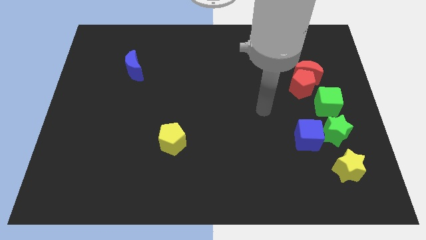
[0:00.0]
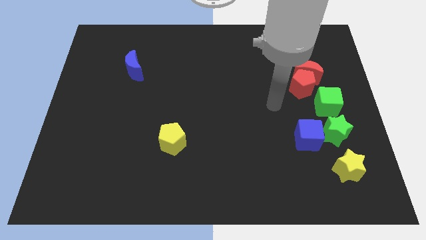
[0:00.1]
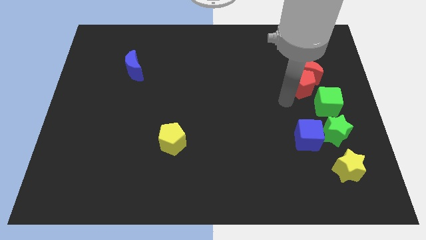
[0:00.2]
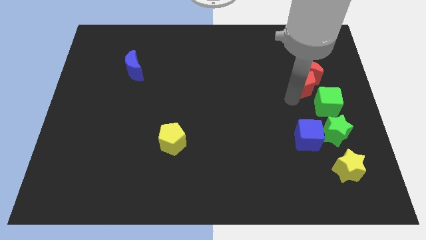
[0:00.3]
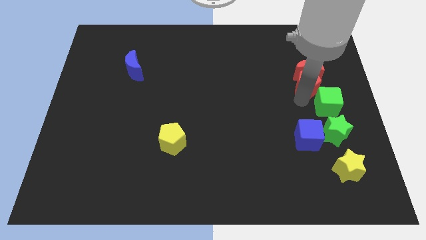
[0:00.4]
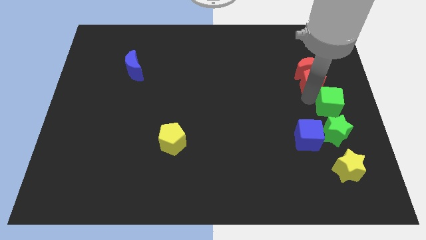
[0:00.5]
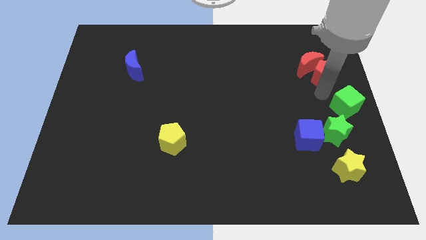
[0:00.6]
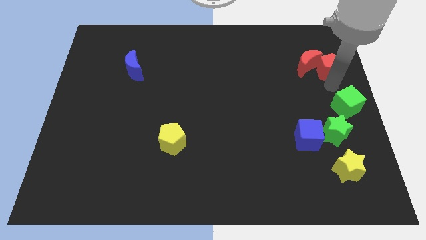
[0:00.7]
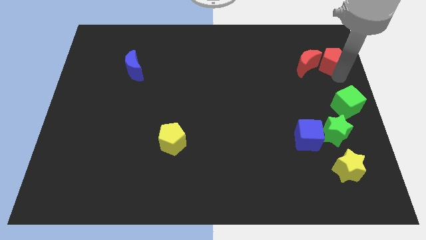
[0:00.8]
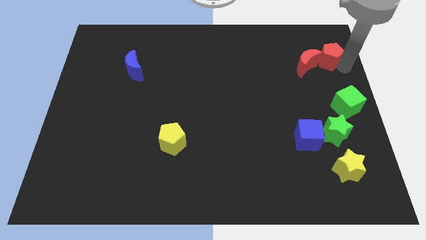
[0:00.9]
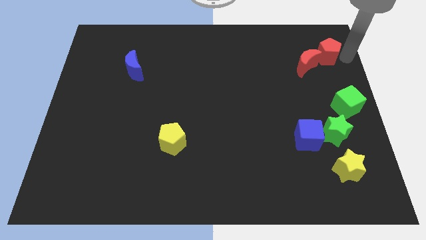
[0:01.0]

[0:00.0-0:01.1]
separate the red pentagon from the red moon and green cube

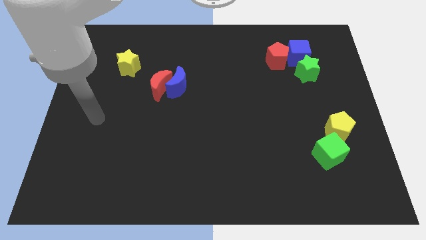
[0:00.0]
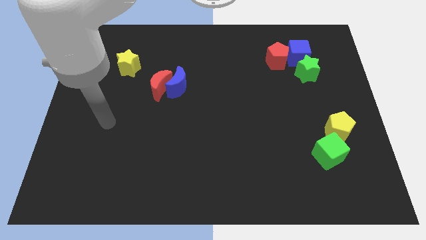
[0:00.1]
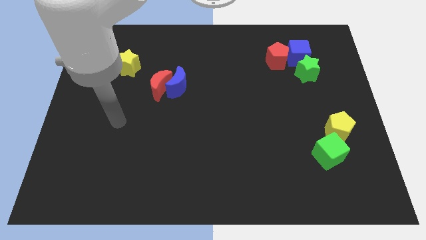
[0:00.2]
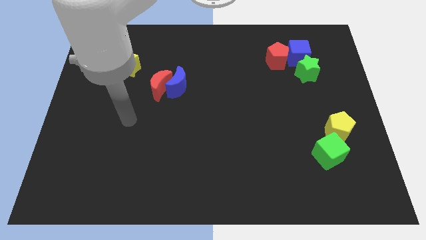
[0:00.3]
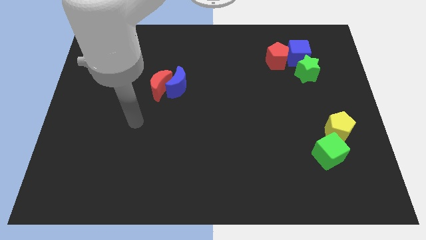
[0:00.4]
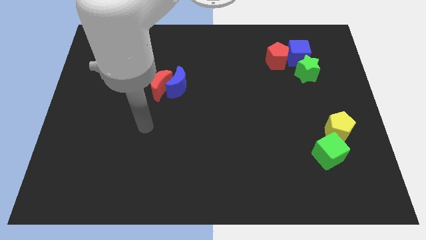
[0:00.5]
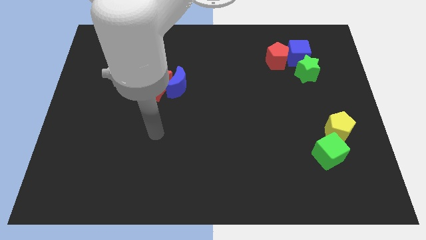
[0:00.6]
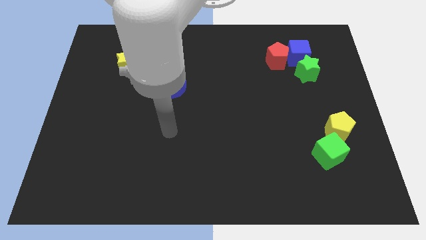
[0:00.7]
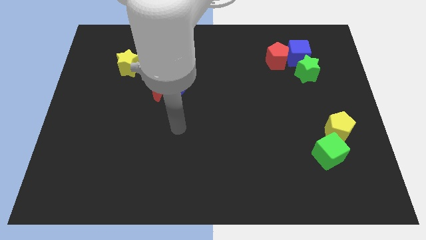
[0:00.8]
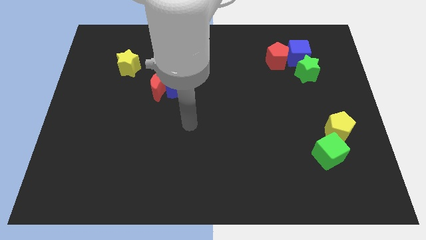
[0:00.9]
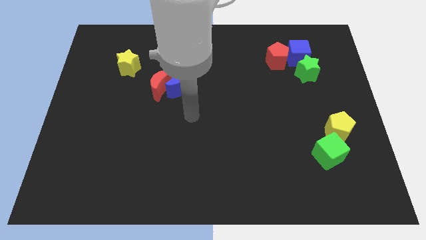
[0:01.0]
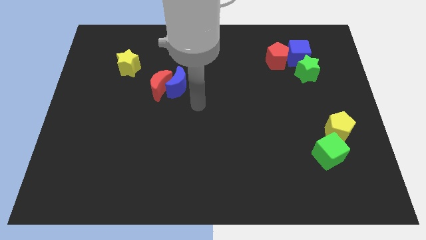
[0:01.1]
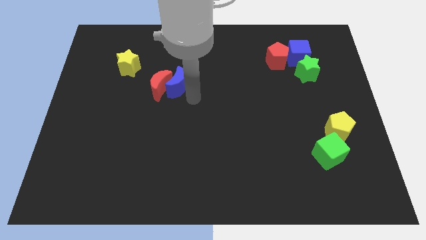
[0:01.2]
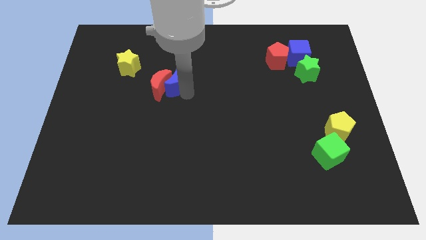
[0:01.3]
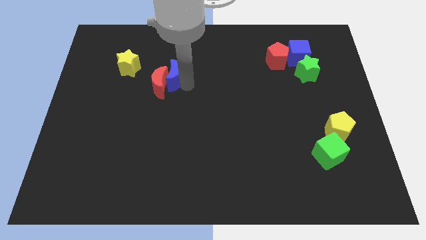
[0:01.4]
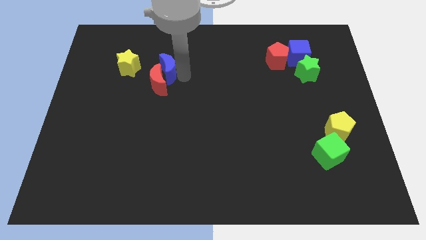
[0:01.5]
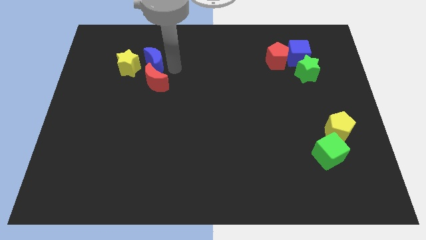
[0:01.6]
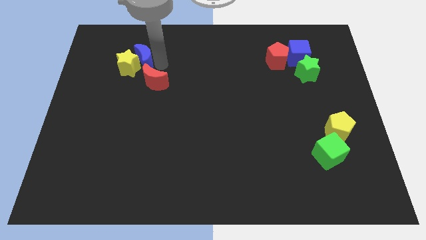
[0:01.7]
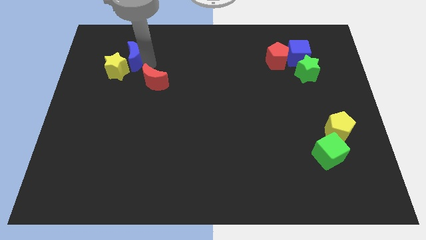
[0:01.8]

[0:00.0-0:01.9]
separate the red moon from the blue moon

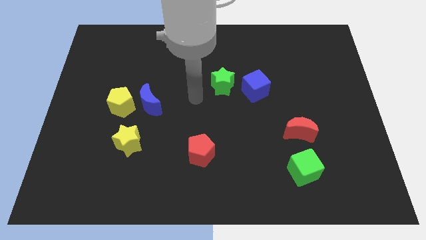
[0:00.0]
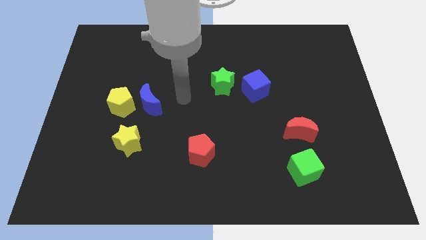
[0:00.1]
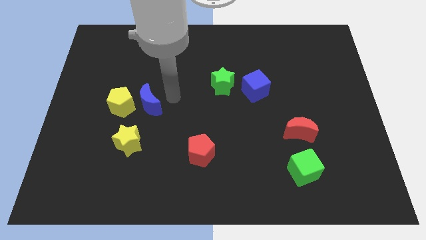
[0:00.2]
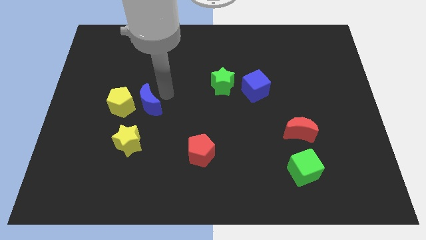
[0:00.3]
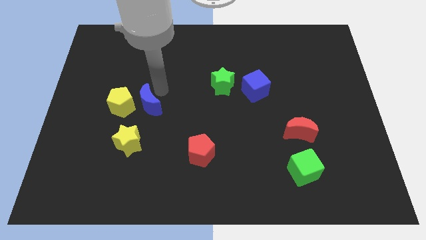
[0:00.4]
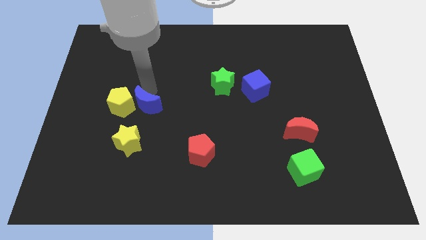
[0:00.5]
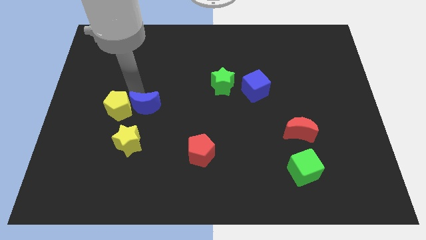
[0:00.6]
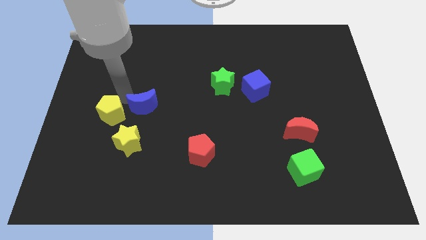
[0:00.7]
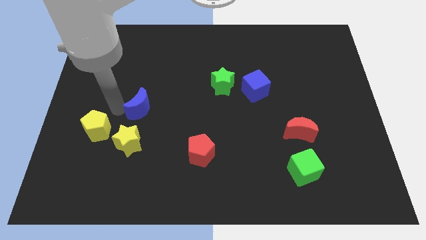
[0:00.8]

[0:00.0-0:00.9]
pull the blue moon apart from the yellow pentagon

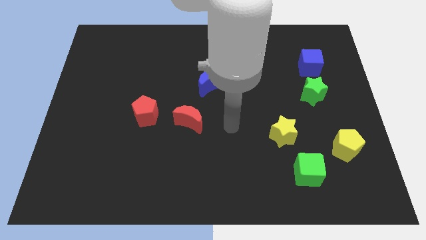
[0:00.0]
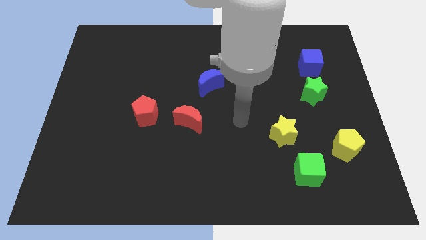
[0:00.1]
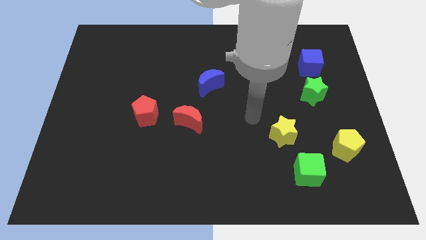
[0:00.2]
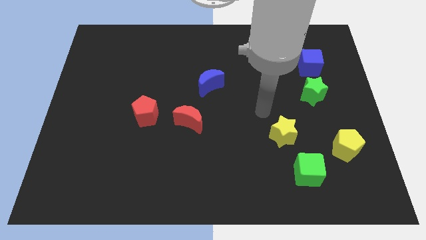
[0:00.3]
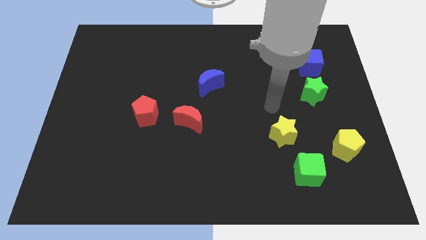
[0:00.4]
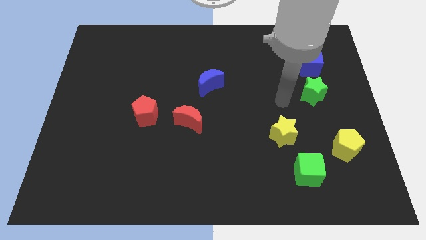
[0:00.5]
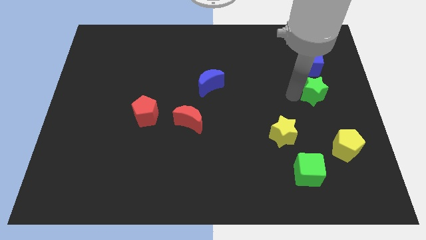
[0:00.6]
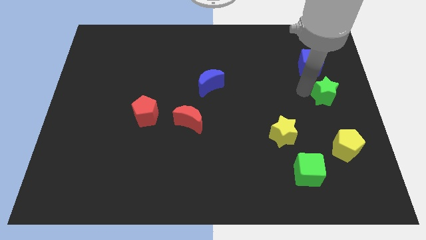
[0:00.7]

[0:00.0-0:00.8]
move the blue cube away from the green star

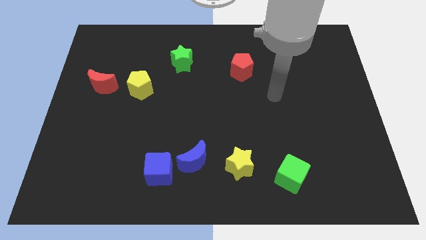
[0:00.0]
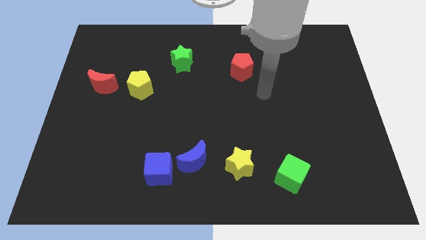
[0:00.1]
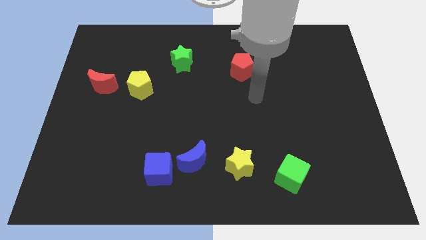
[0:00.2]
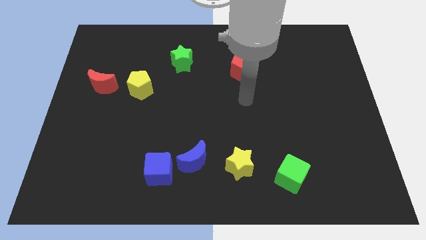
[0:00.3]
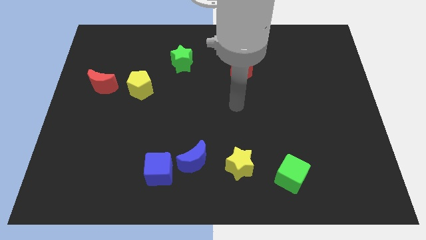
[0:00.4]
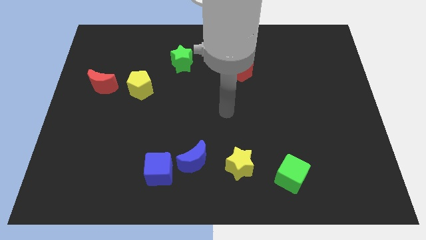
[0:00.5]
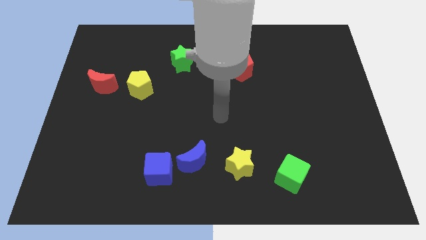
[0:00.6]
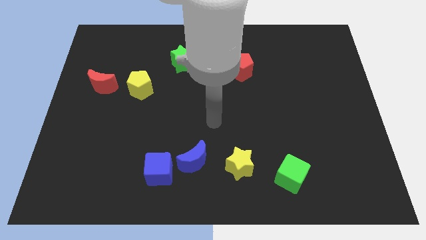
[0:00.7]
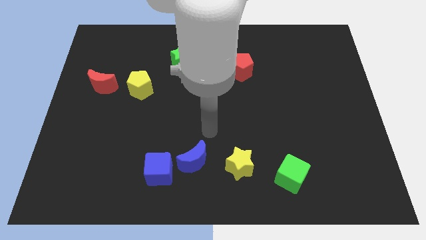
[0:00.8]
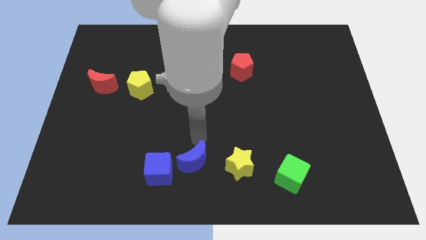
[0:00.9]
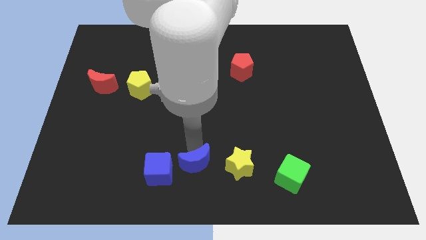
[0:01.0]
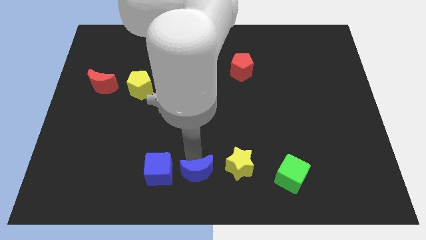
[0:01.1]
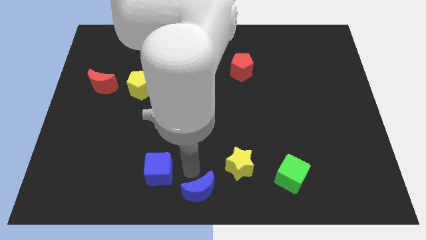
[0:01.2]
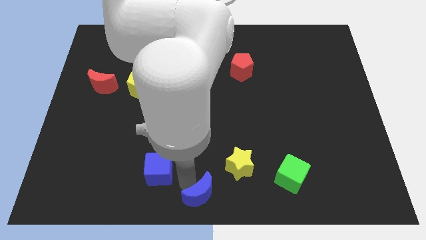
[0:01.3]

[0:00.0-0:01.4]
pull the blue cube apart from the blue moon

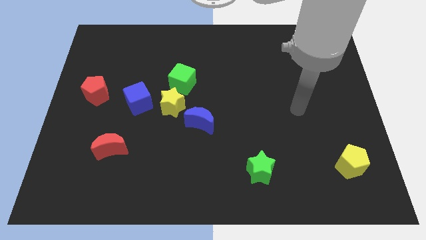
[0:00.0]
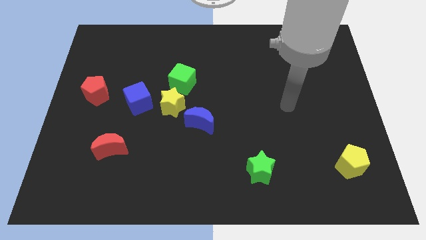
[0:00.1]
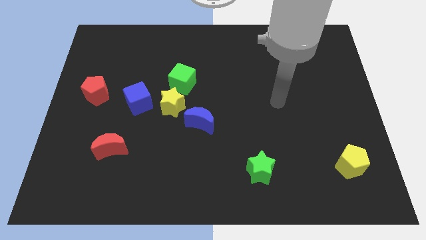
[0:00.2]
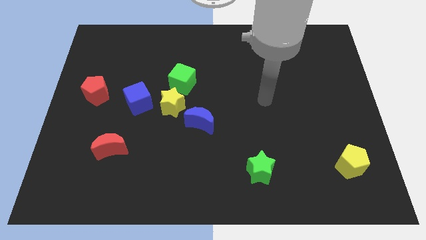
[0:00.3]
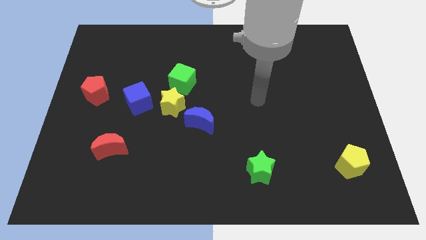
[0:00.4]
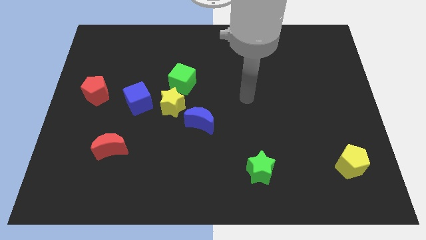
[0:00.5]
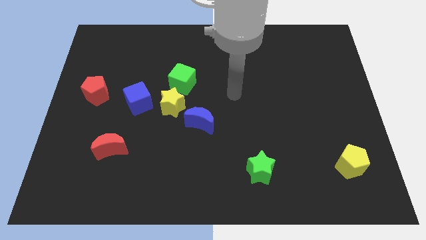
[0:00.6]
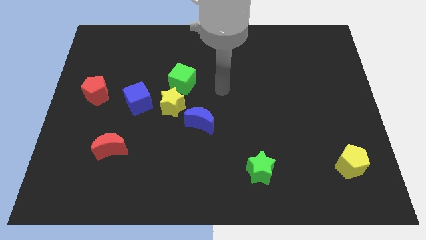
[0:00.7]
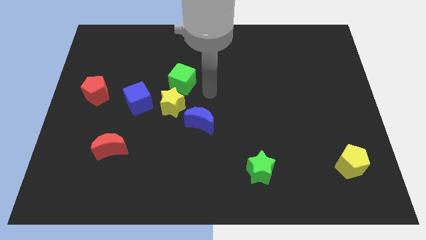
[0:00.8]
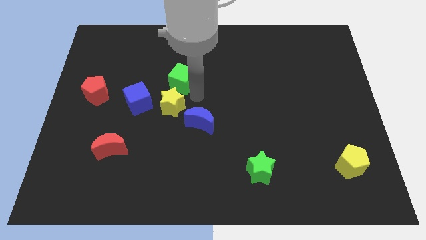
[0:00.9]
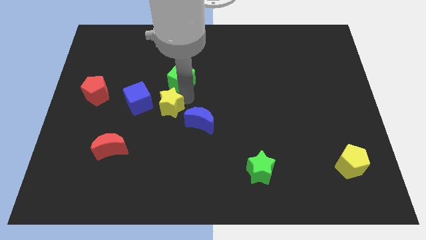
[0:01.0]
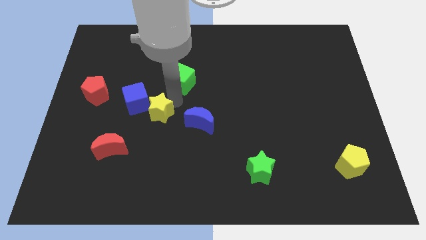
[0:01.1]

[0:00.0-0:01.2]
pull the green cube apart from the yellow star

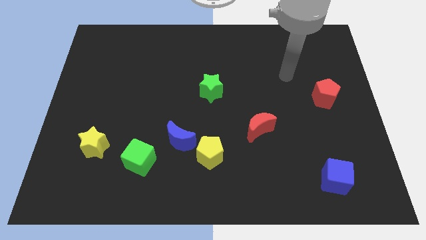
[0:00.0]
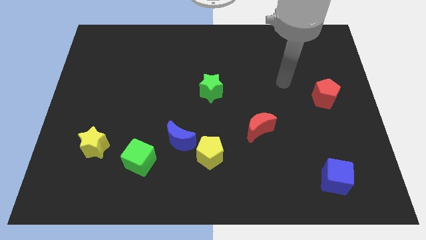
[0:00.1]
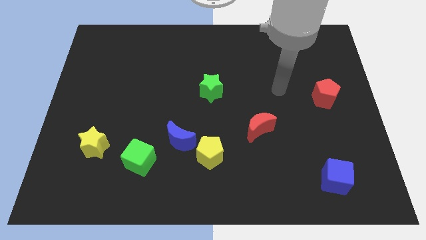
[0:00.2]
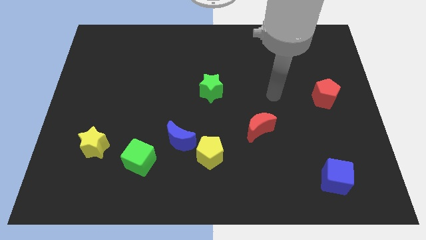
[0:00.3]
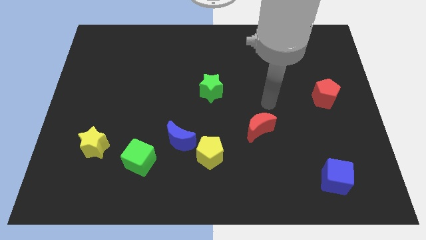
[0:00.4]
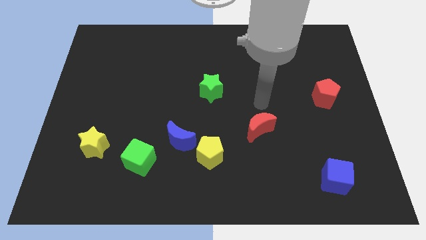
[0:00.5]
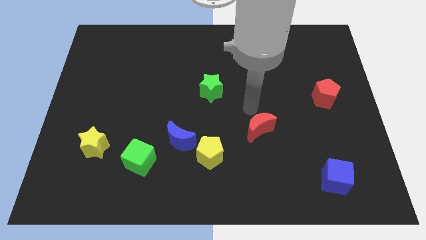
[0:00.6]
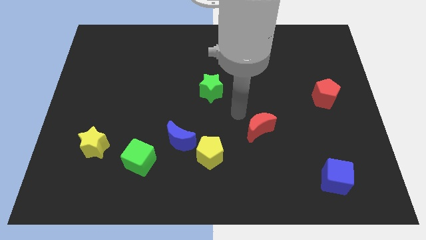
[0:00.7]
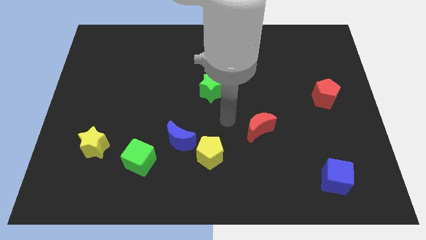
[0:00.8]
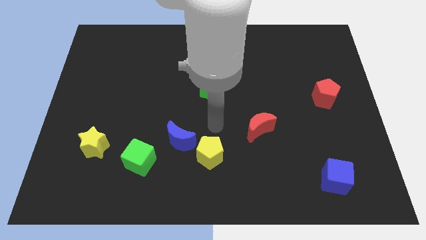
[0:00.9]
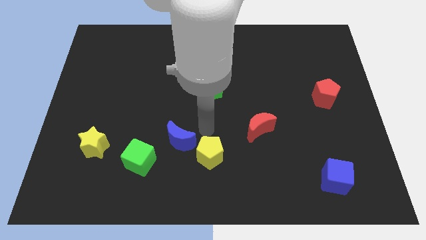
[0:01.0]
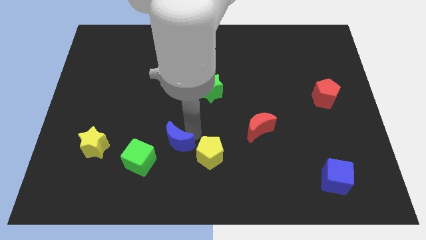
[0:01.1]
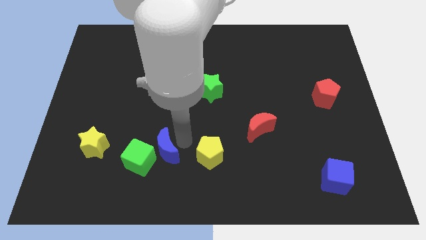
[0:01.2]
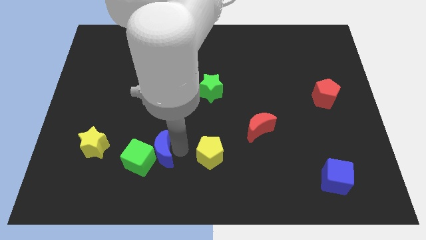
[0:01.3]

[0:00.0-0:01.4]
pull the yellow pentagon apart from the blue moon

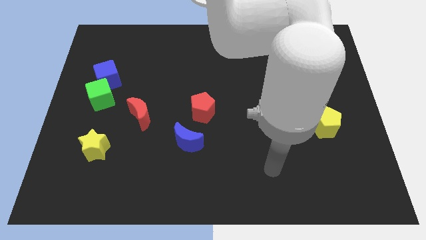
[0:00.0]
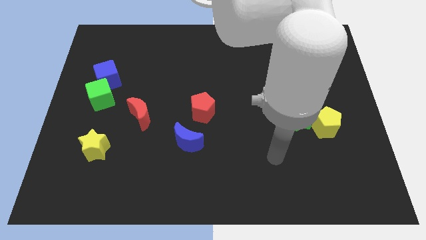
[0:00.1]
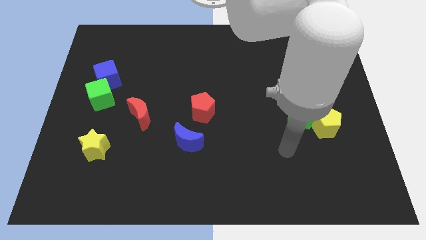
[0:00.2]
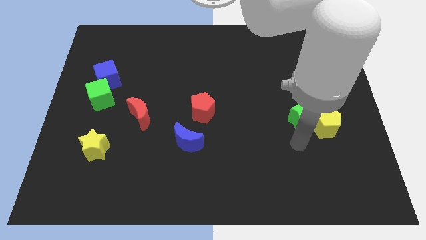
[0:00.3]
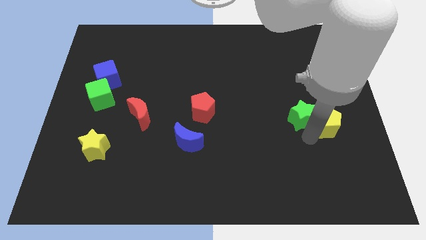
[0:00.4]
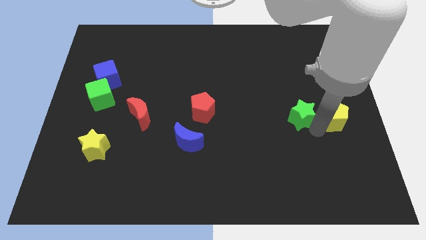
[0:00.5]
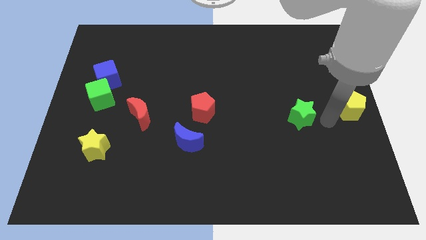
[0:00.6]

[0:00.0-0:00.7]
pull the green star apart from the yellow pentagon
